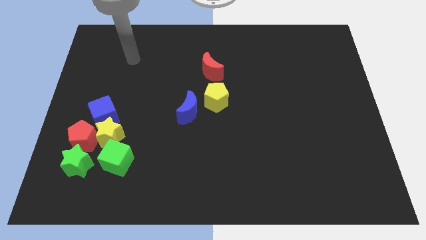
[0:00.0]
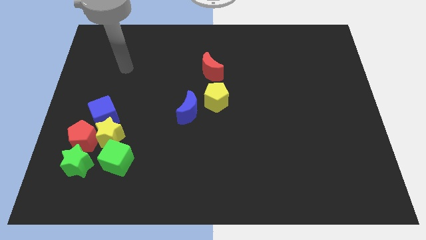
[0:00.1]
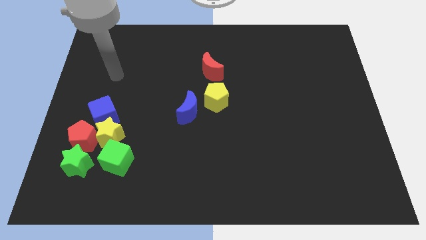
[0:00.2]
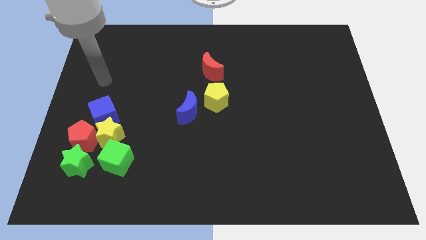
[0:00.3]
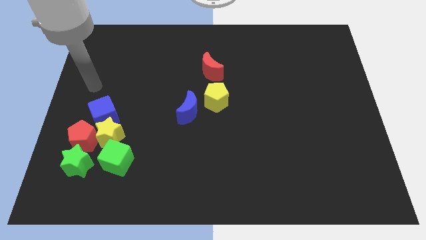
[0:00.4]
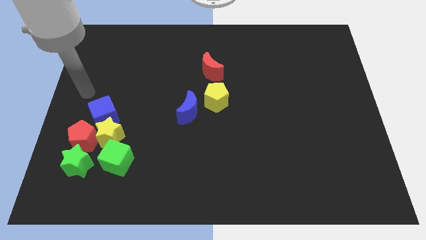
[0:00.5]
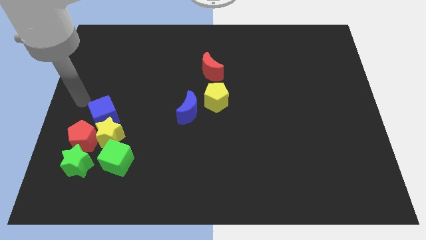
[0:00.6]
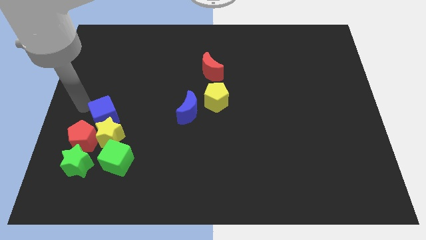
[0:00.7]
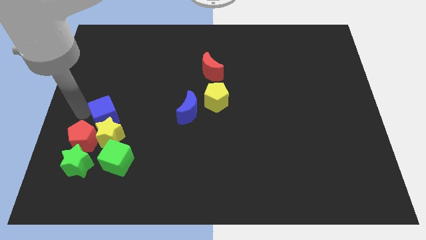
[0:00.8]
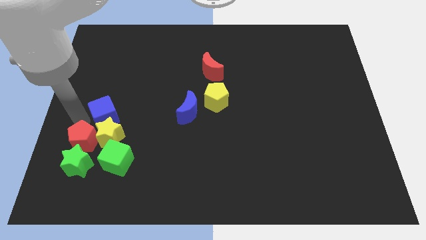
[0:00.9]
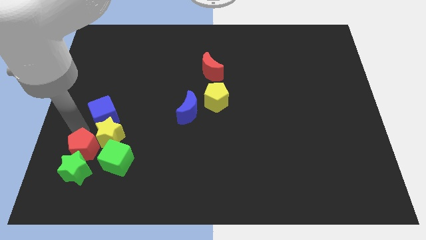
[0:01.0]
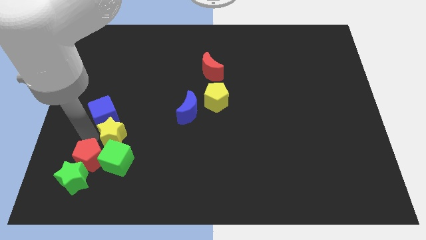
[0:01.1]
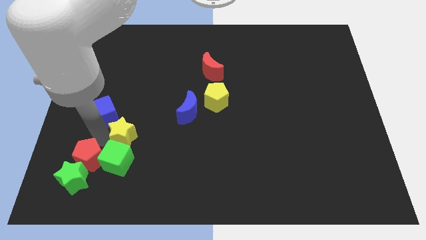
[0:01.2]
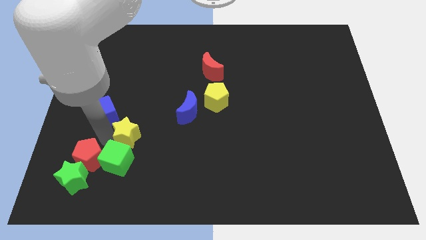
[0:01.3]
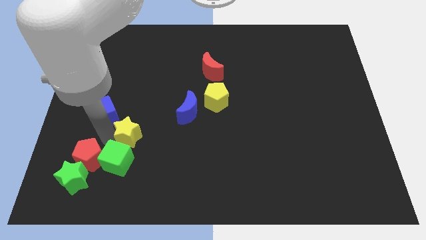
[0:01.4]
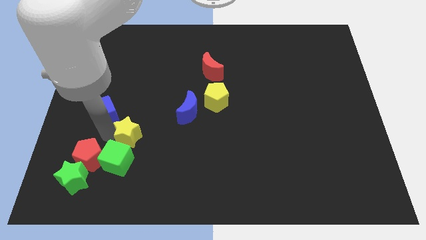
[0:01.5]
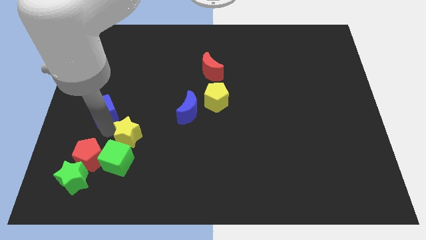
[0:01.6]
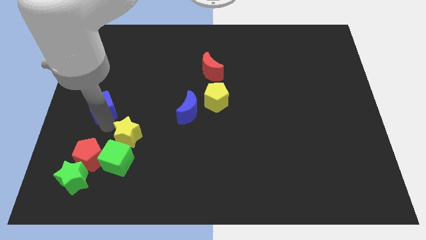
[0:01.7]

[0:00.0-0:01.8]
separate the blue cube from the yellow star and red pentagon

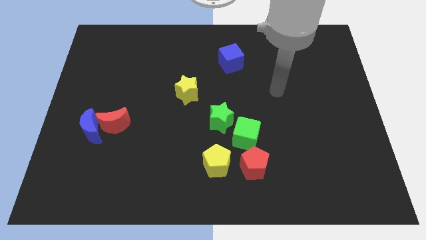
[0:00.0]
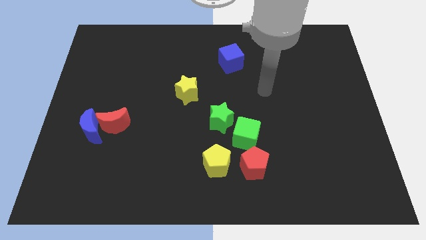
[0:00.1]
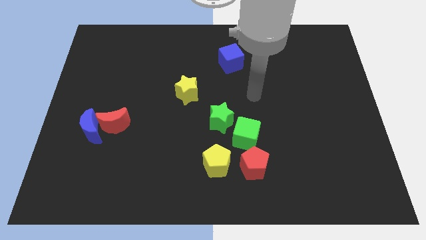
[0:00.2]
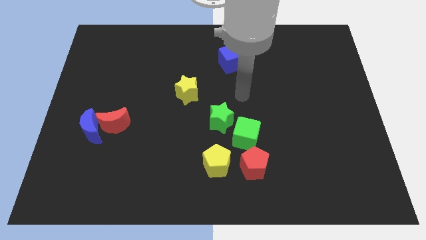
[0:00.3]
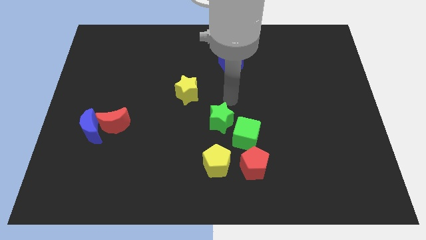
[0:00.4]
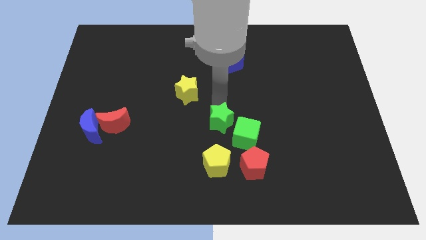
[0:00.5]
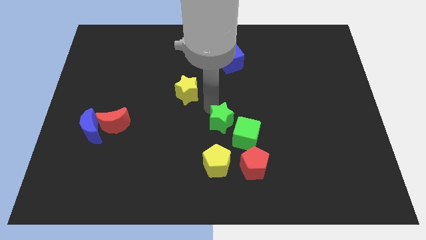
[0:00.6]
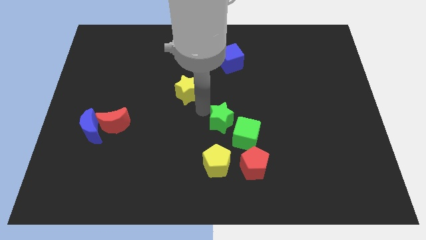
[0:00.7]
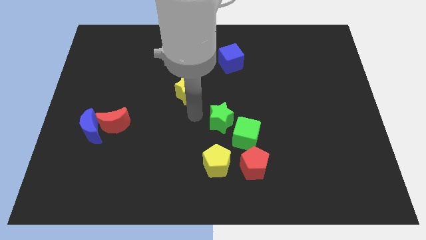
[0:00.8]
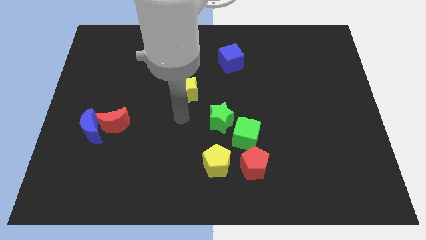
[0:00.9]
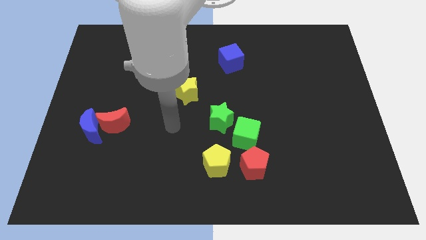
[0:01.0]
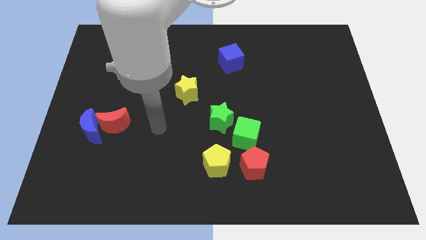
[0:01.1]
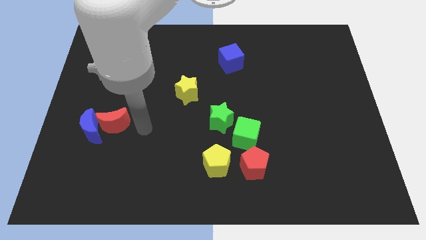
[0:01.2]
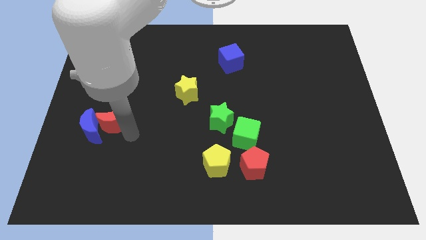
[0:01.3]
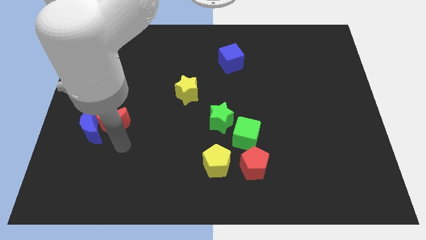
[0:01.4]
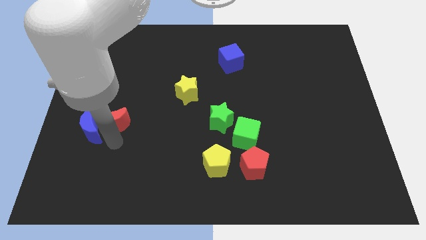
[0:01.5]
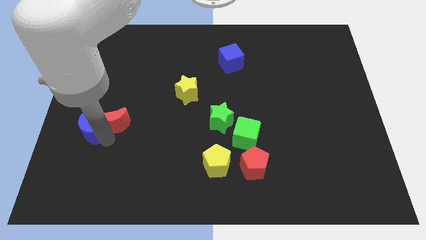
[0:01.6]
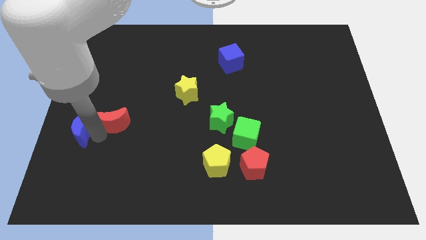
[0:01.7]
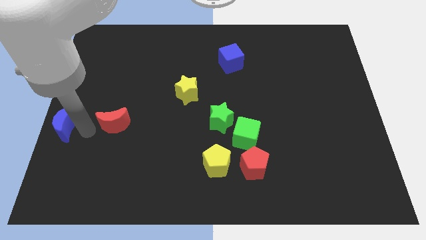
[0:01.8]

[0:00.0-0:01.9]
pull the red moon apart from the blue moon

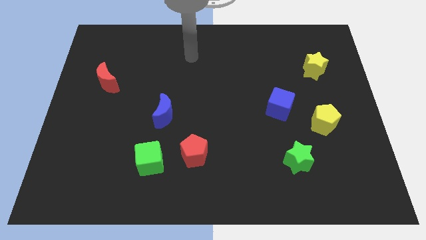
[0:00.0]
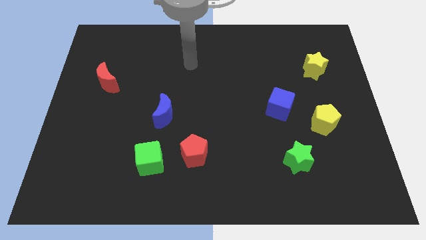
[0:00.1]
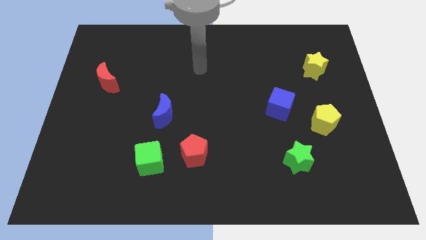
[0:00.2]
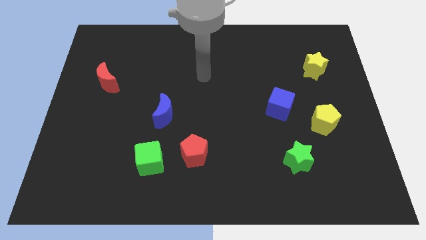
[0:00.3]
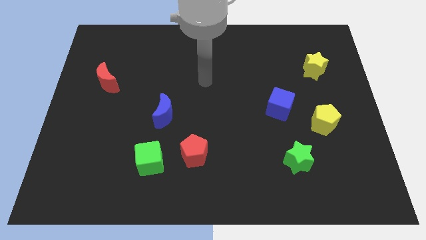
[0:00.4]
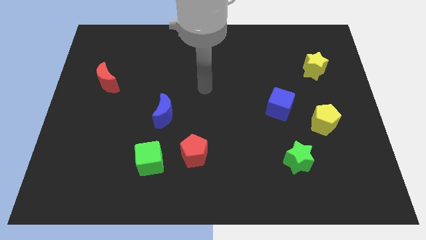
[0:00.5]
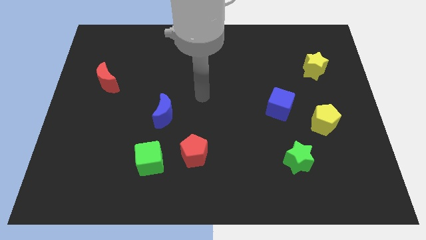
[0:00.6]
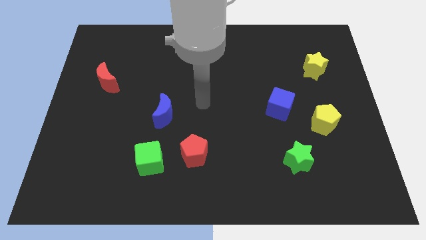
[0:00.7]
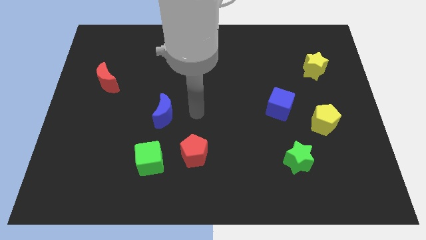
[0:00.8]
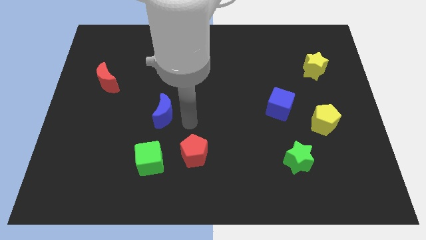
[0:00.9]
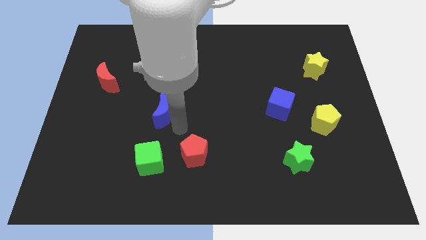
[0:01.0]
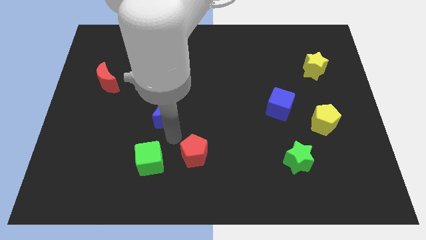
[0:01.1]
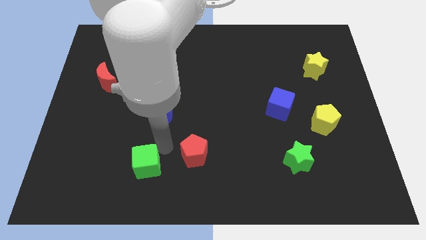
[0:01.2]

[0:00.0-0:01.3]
separate the red pentagon from the green cube

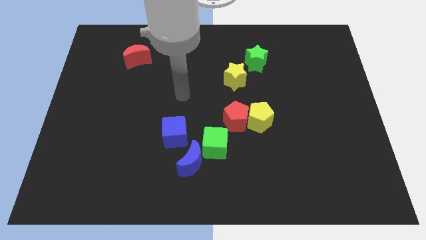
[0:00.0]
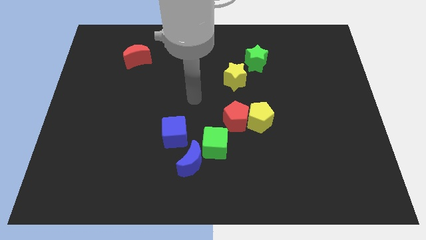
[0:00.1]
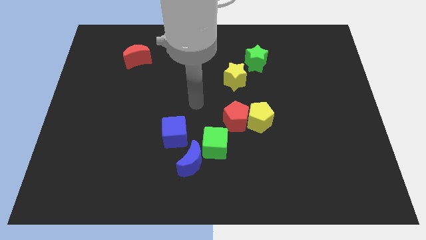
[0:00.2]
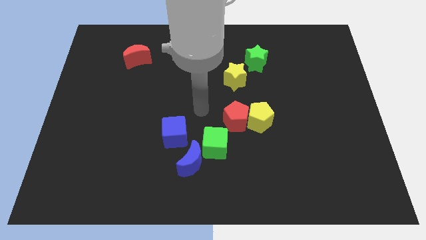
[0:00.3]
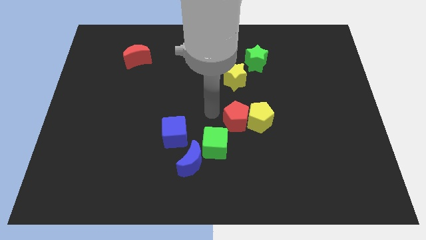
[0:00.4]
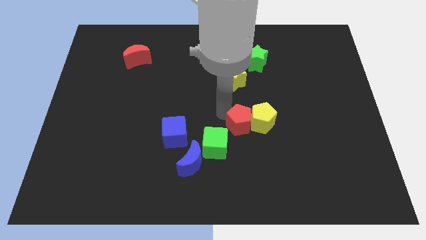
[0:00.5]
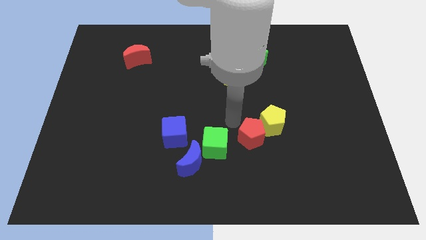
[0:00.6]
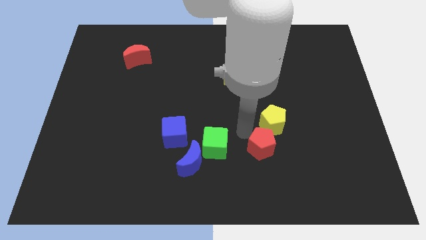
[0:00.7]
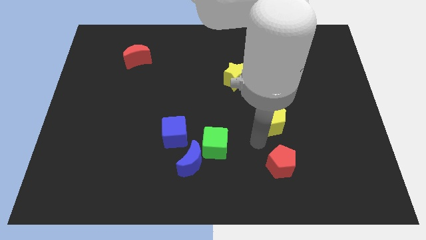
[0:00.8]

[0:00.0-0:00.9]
pull the yellow pentagon apart from the red pentagon

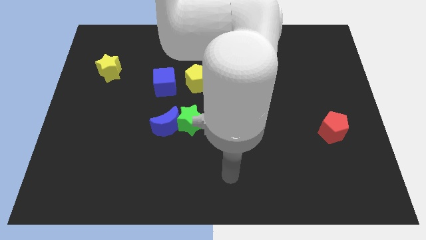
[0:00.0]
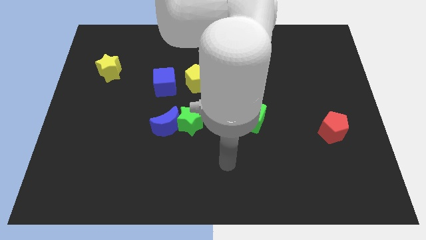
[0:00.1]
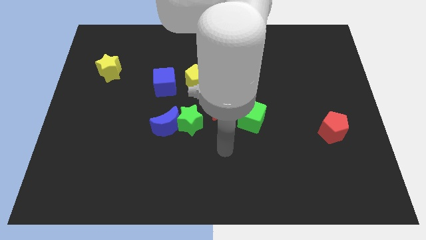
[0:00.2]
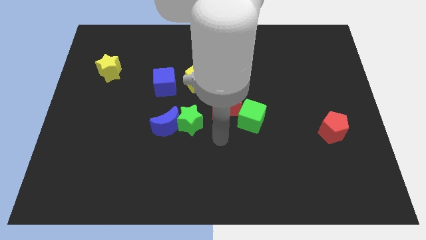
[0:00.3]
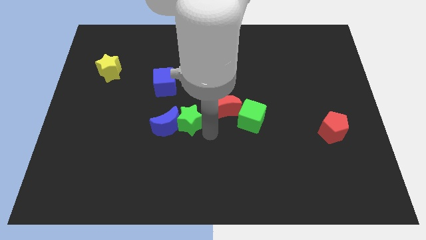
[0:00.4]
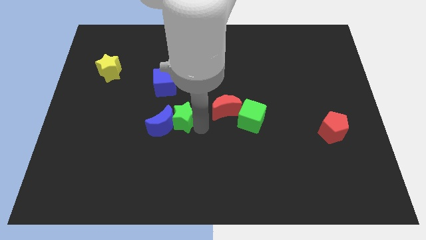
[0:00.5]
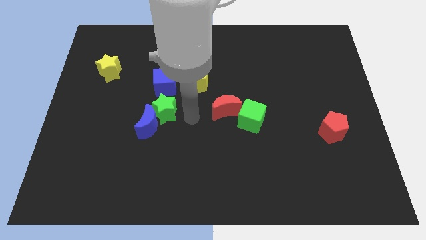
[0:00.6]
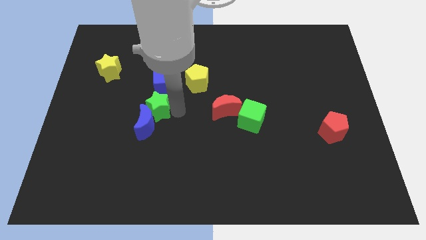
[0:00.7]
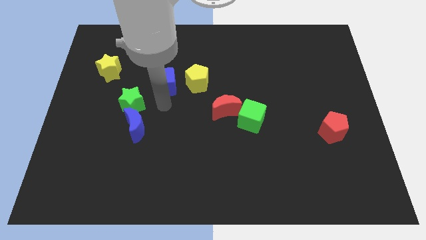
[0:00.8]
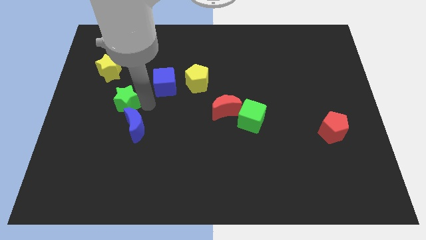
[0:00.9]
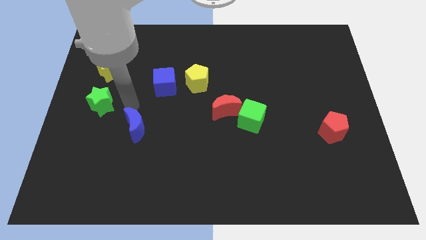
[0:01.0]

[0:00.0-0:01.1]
move the blue moon away from the green star

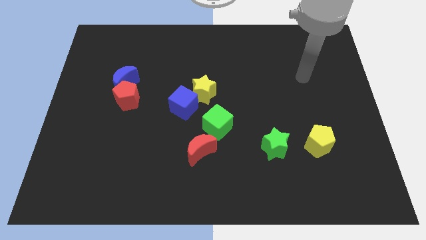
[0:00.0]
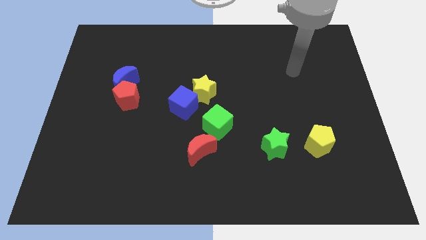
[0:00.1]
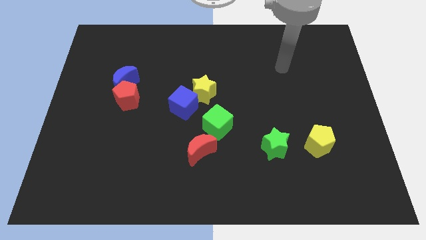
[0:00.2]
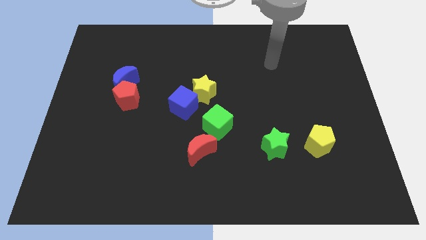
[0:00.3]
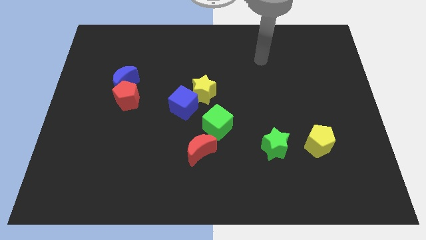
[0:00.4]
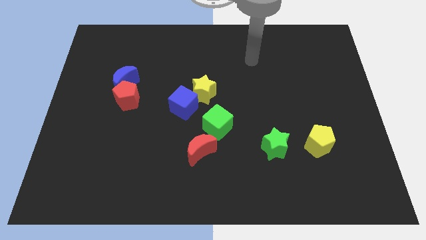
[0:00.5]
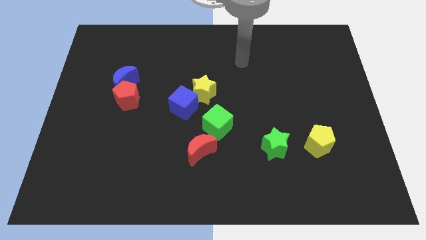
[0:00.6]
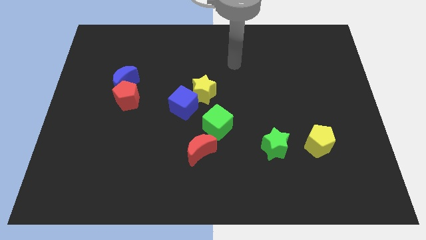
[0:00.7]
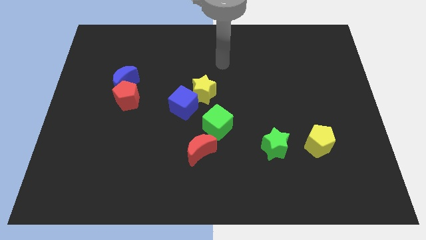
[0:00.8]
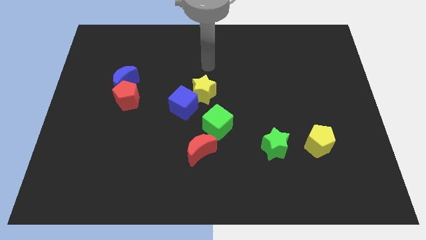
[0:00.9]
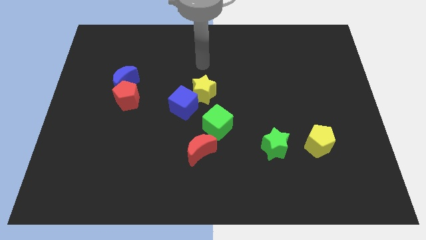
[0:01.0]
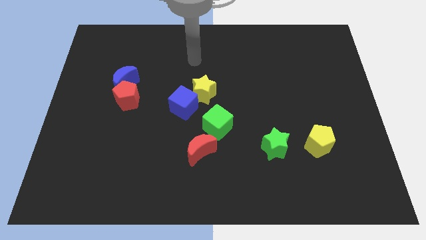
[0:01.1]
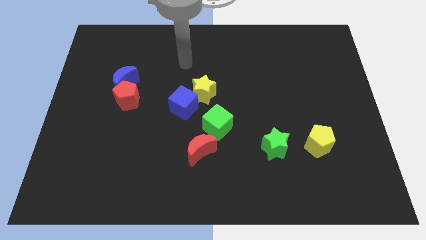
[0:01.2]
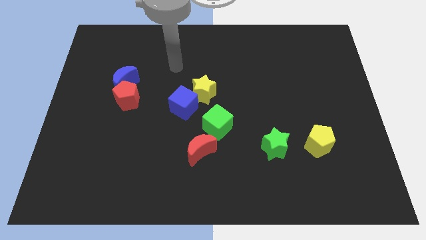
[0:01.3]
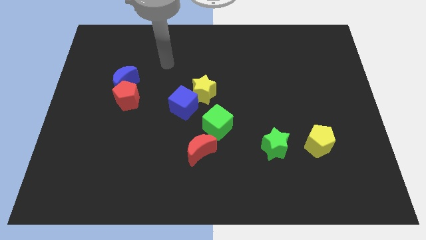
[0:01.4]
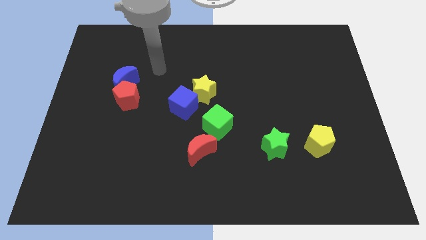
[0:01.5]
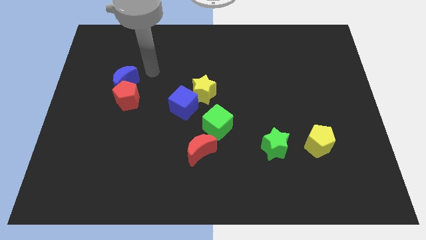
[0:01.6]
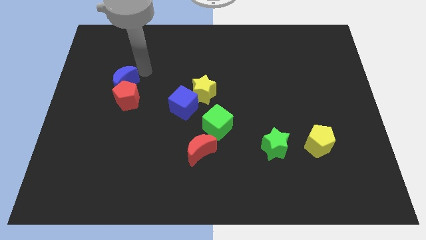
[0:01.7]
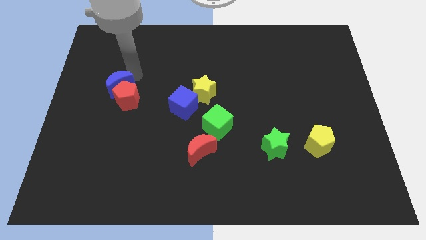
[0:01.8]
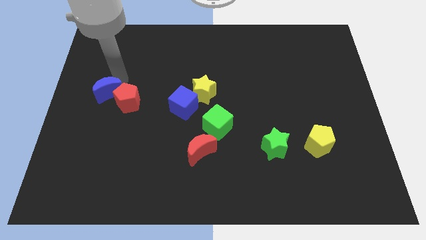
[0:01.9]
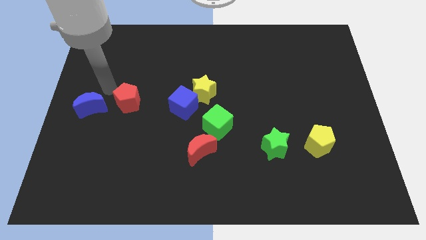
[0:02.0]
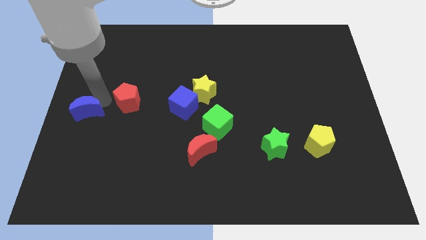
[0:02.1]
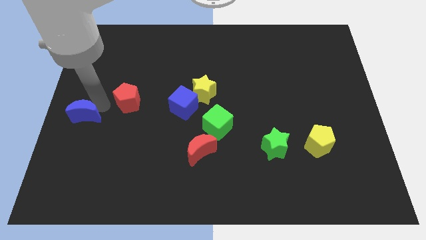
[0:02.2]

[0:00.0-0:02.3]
separate the red pentagon from the blue moon
